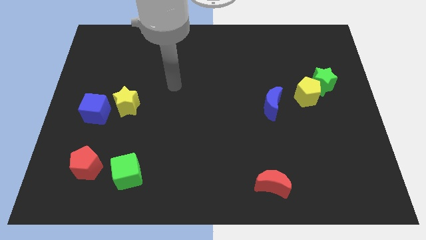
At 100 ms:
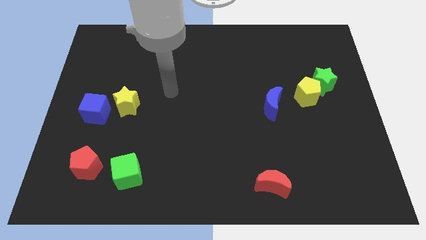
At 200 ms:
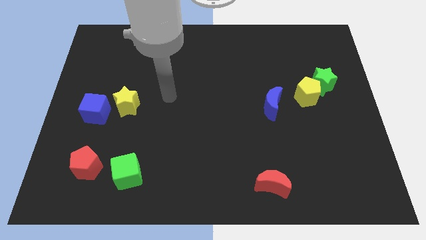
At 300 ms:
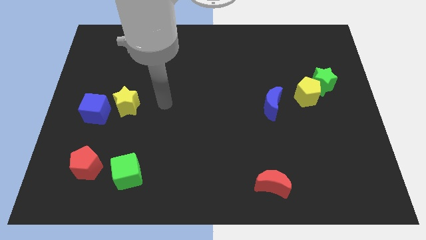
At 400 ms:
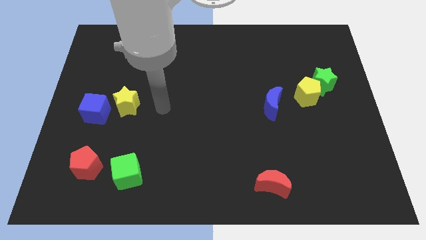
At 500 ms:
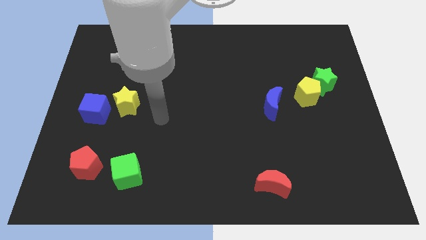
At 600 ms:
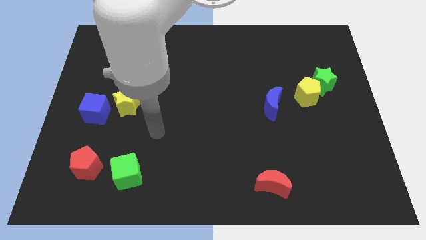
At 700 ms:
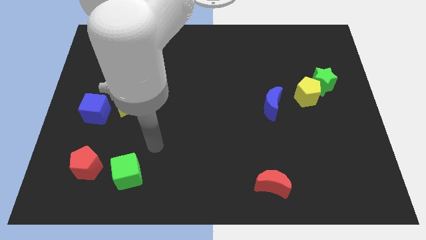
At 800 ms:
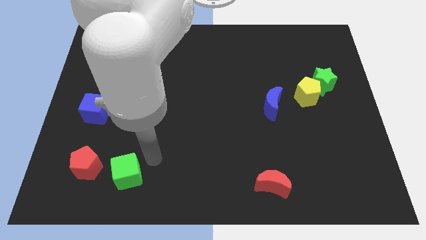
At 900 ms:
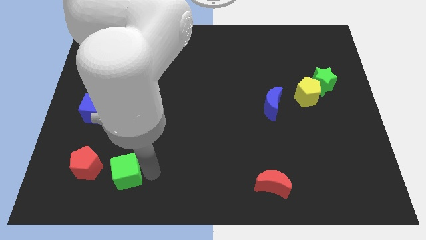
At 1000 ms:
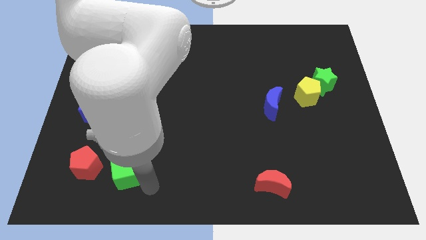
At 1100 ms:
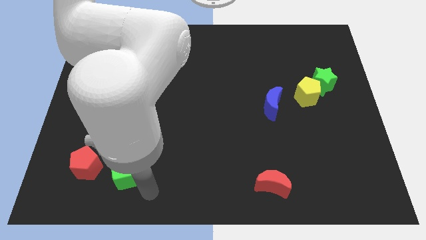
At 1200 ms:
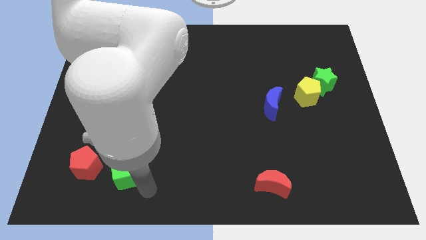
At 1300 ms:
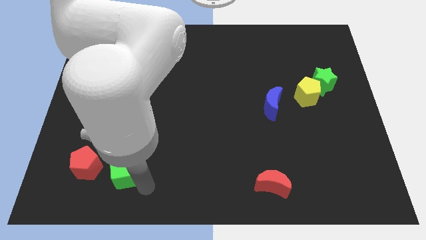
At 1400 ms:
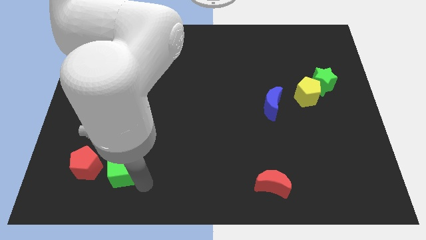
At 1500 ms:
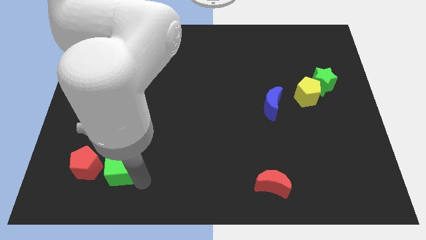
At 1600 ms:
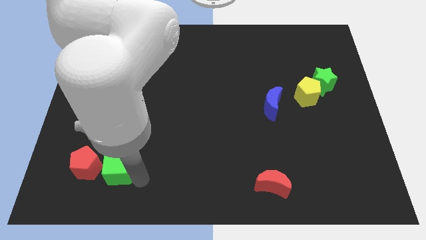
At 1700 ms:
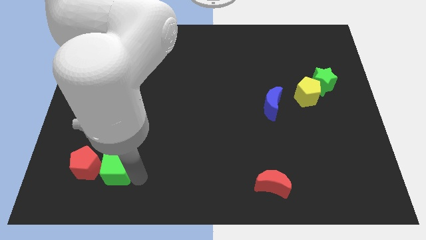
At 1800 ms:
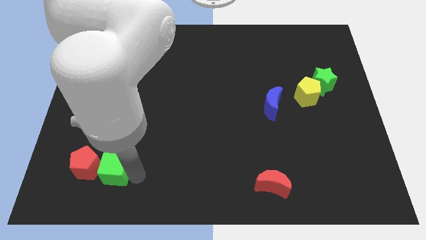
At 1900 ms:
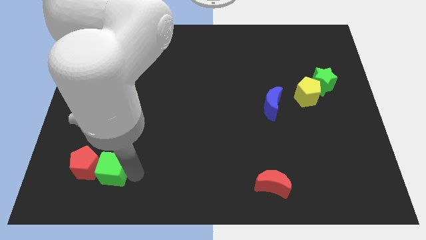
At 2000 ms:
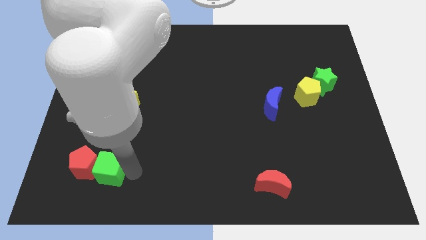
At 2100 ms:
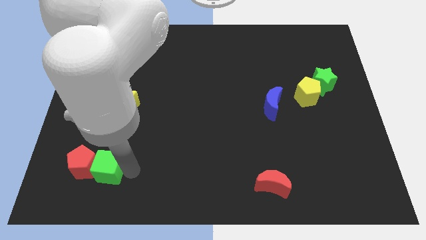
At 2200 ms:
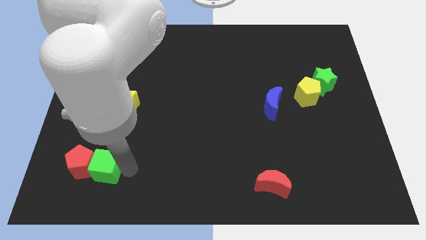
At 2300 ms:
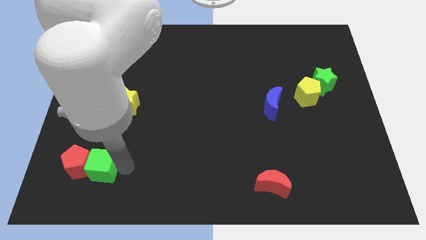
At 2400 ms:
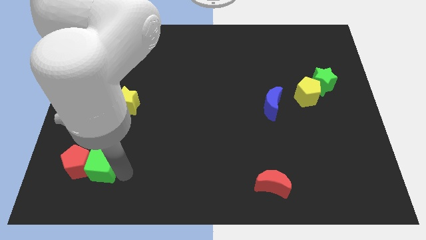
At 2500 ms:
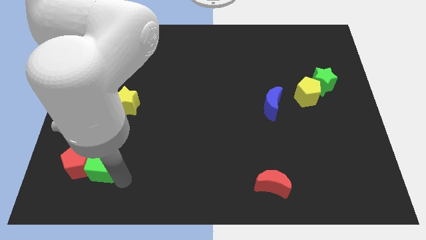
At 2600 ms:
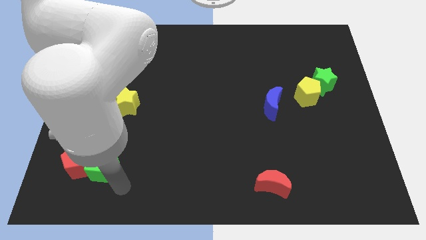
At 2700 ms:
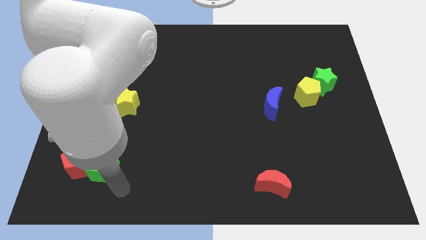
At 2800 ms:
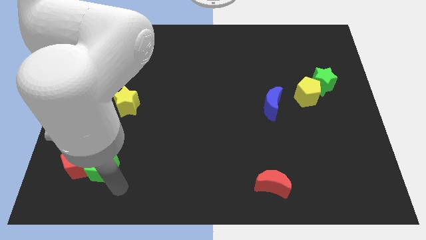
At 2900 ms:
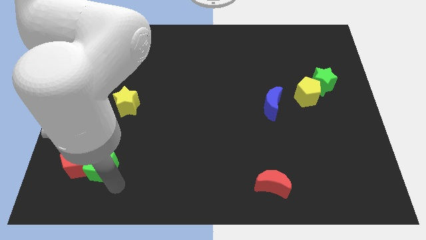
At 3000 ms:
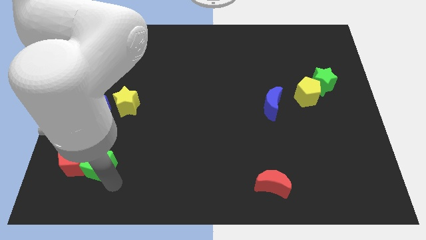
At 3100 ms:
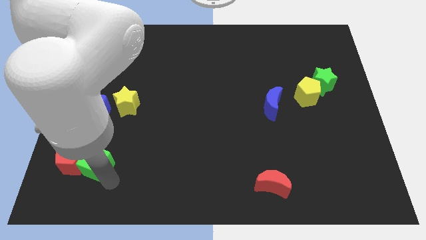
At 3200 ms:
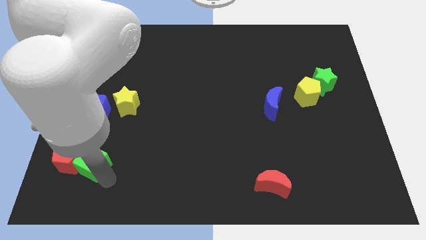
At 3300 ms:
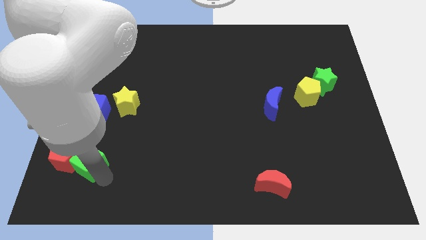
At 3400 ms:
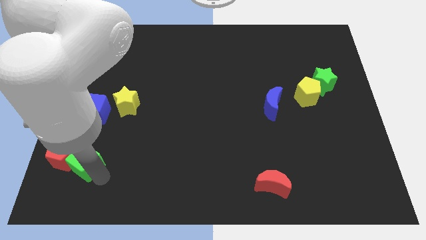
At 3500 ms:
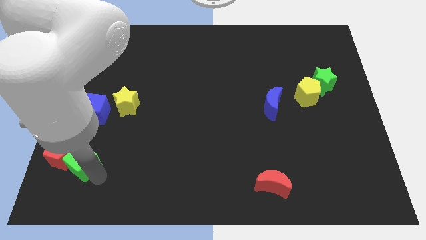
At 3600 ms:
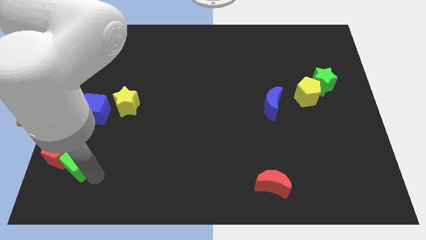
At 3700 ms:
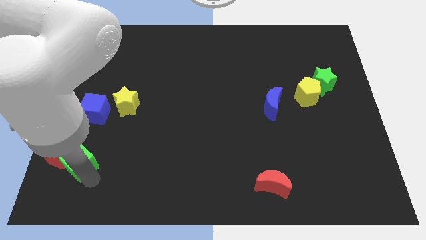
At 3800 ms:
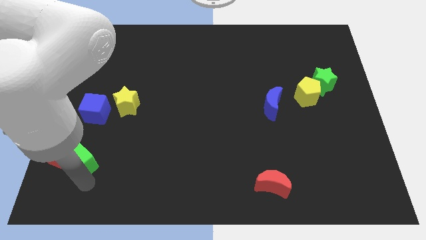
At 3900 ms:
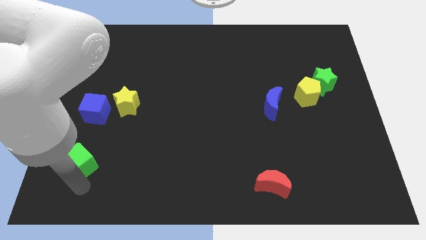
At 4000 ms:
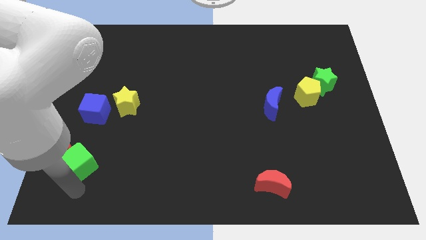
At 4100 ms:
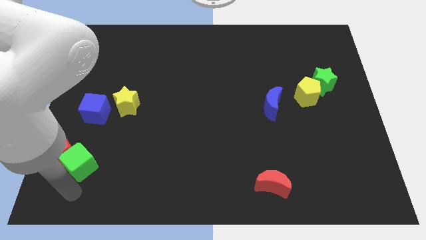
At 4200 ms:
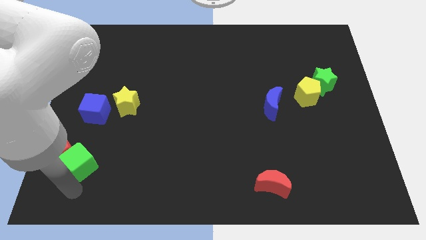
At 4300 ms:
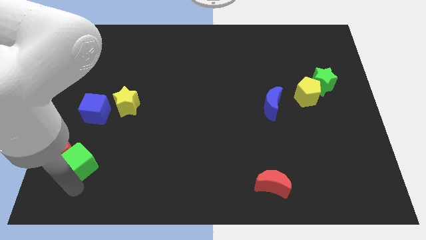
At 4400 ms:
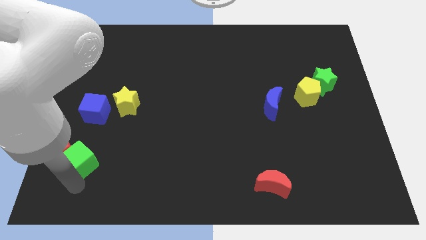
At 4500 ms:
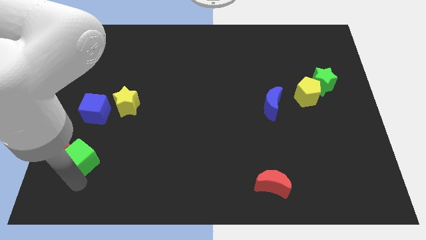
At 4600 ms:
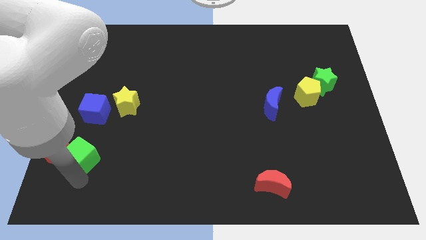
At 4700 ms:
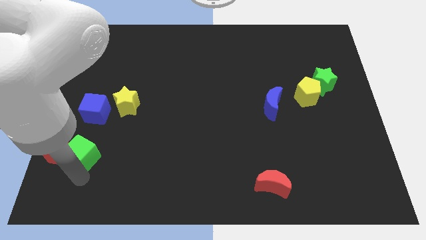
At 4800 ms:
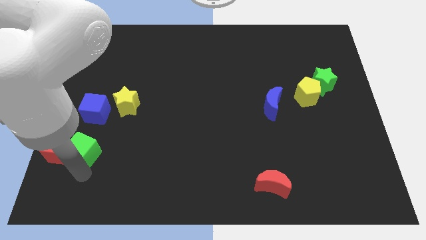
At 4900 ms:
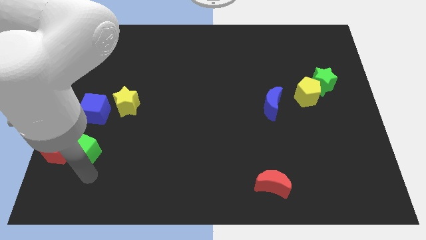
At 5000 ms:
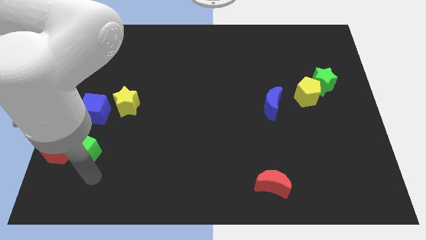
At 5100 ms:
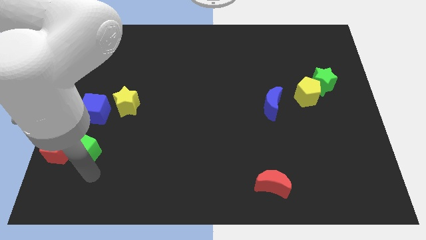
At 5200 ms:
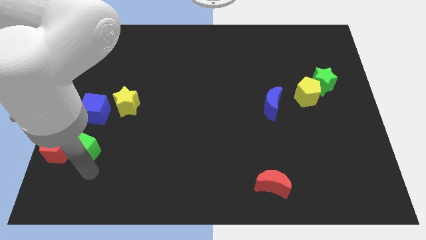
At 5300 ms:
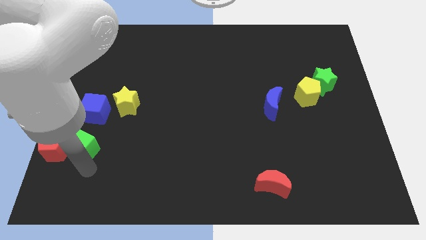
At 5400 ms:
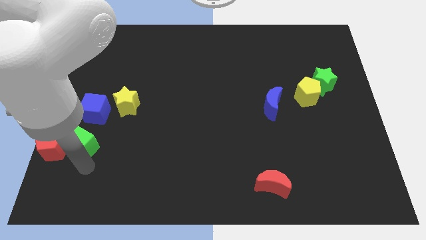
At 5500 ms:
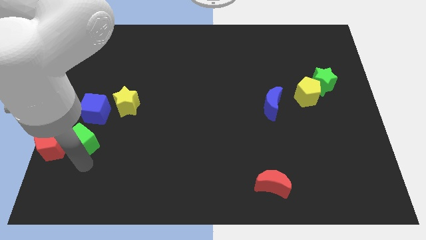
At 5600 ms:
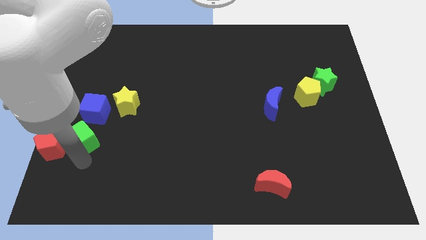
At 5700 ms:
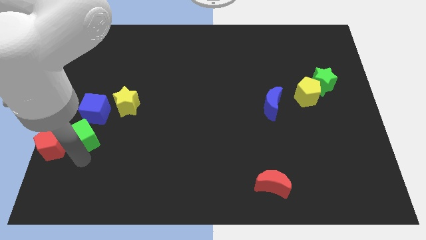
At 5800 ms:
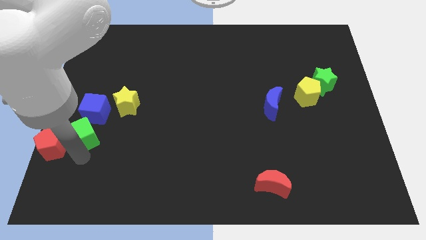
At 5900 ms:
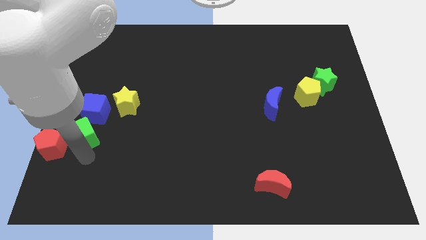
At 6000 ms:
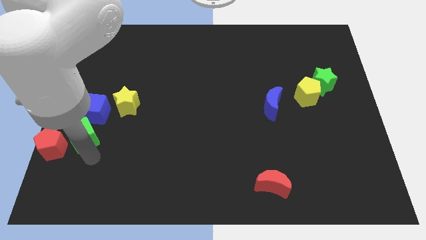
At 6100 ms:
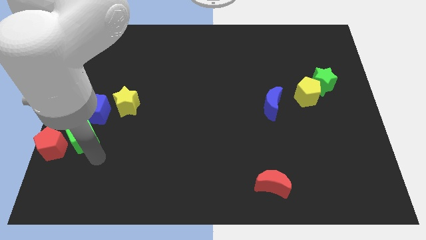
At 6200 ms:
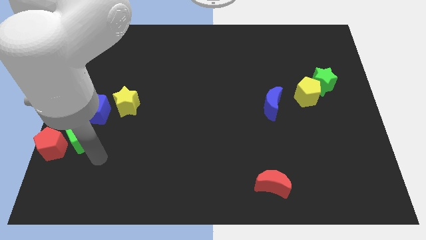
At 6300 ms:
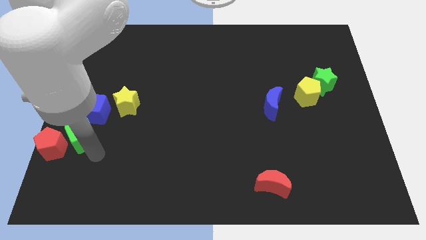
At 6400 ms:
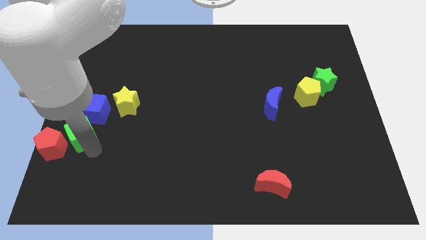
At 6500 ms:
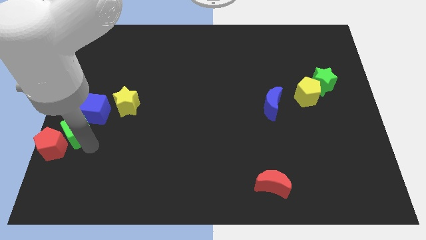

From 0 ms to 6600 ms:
slide the green cube to the left side
